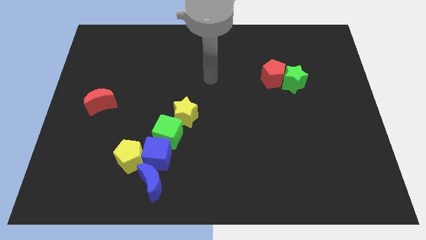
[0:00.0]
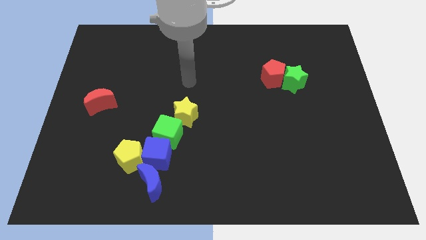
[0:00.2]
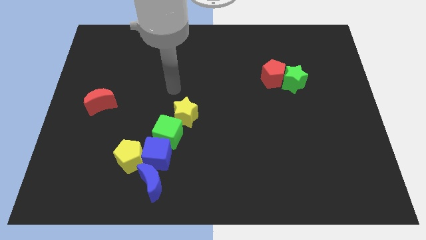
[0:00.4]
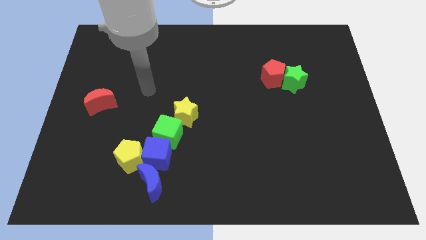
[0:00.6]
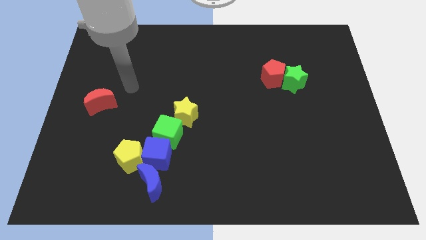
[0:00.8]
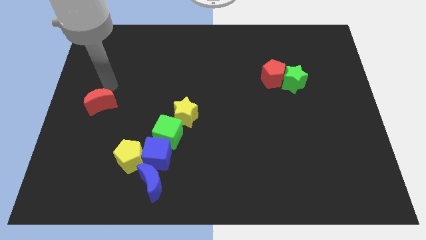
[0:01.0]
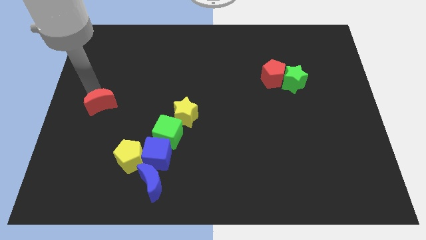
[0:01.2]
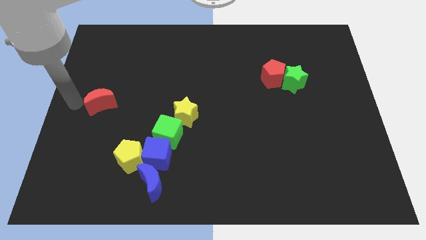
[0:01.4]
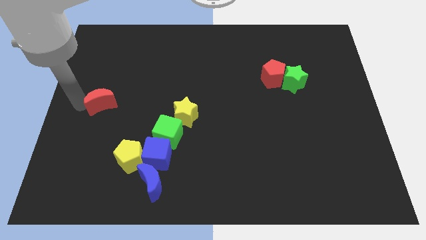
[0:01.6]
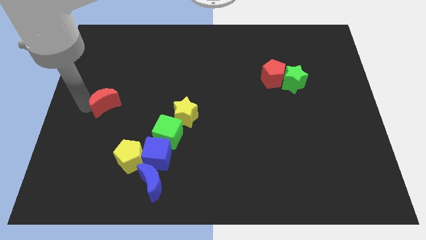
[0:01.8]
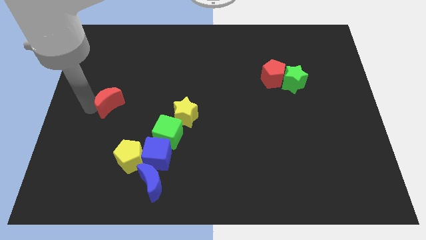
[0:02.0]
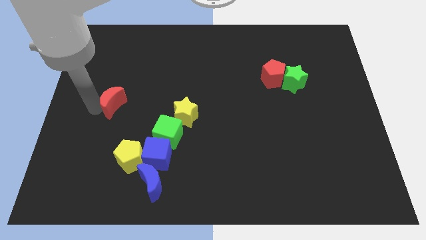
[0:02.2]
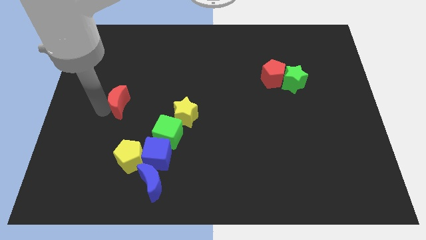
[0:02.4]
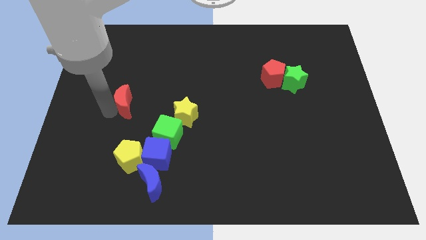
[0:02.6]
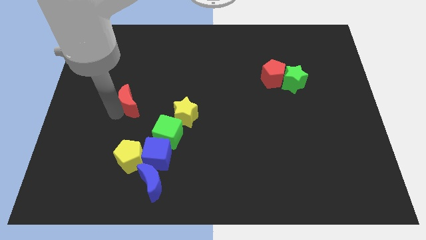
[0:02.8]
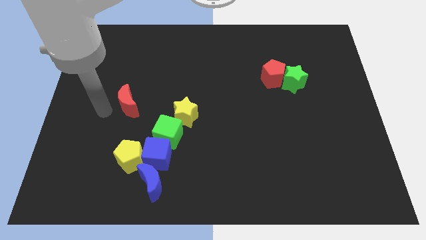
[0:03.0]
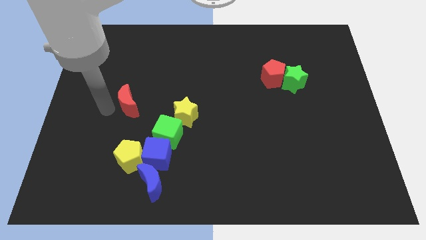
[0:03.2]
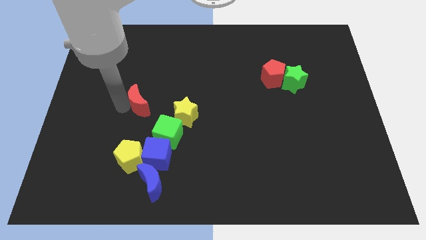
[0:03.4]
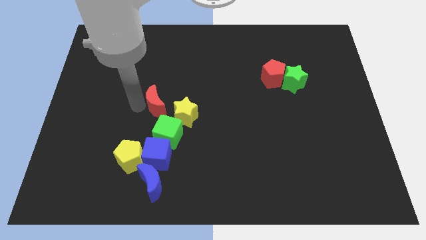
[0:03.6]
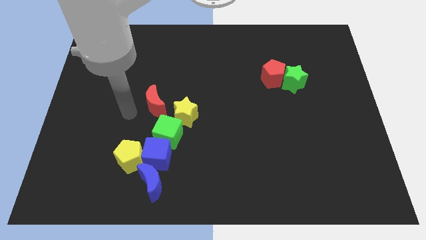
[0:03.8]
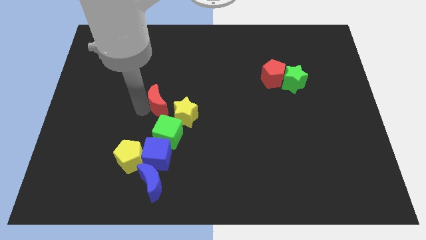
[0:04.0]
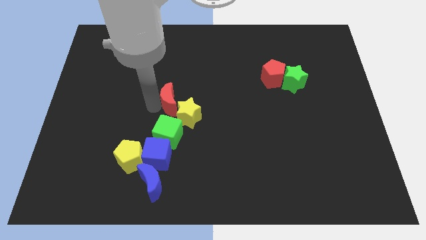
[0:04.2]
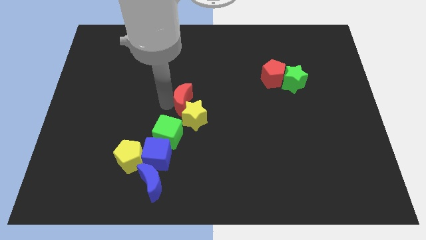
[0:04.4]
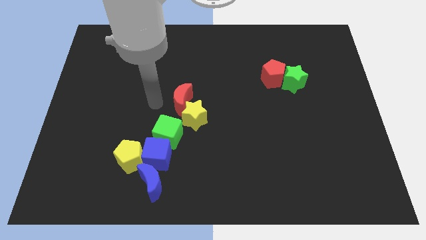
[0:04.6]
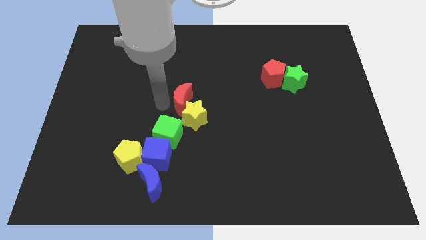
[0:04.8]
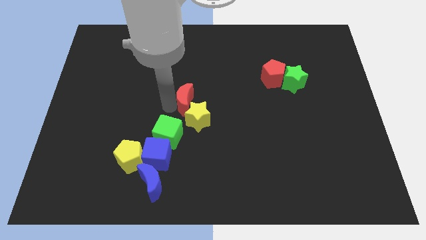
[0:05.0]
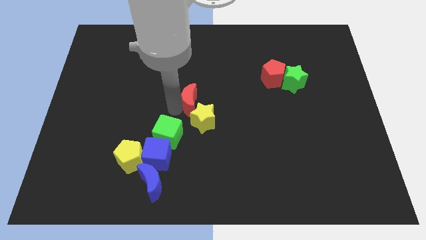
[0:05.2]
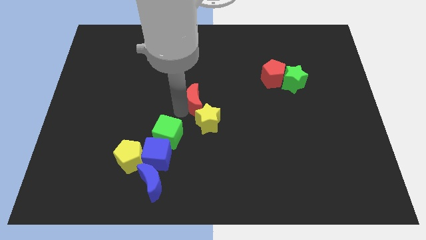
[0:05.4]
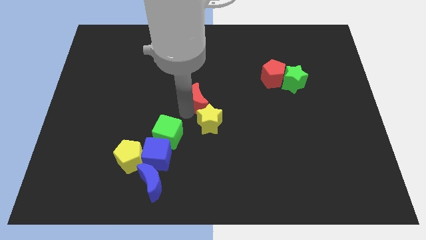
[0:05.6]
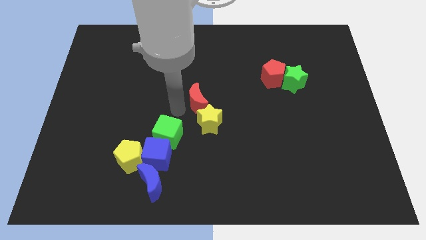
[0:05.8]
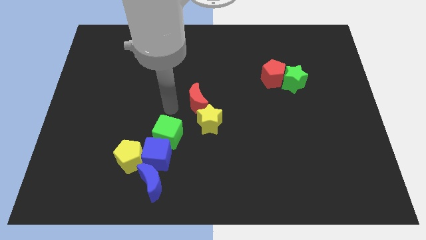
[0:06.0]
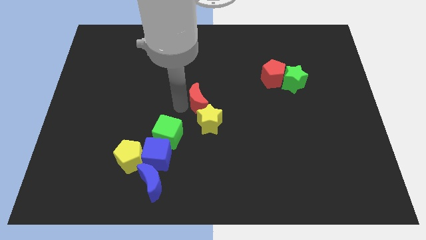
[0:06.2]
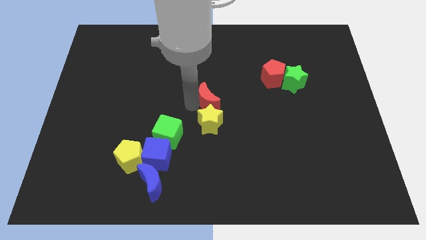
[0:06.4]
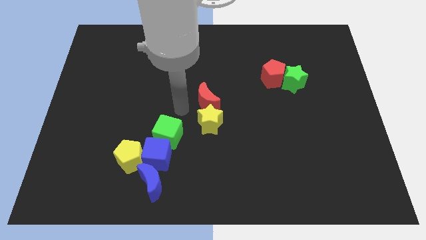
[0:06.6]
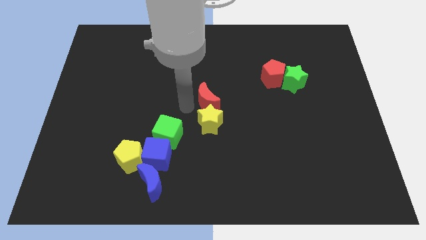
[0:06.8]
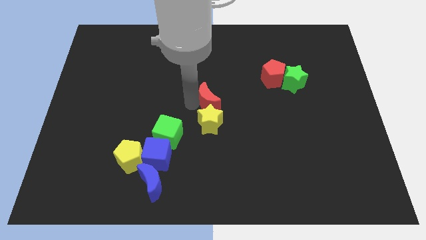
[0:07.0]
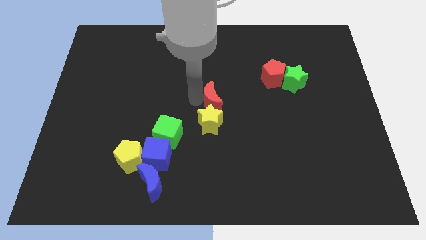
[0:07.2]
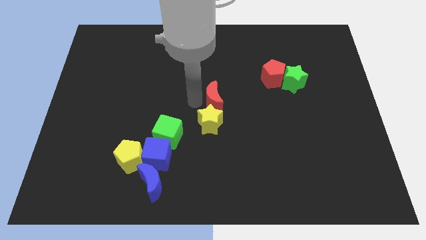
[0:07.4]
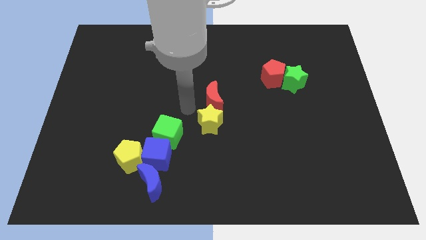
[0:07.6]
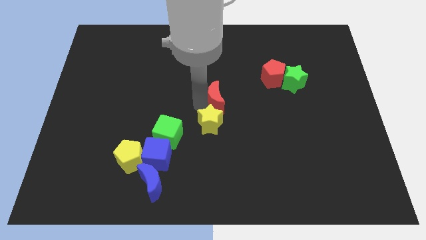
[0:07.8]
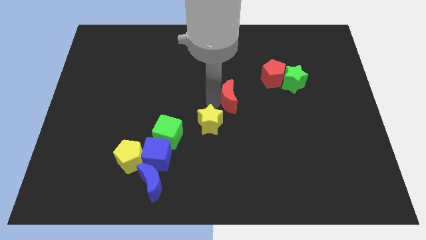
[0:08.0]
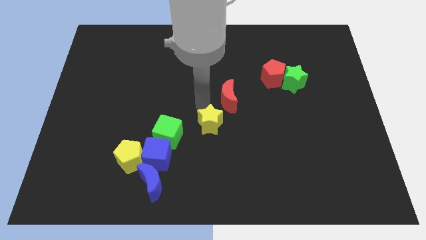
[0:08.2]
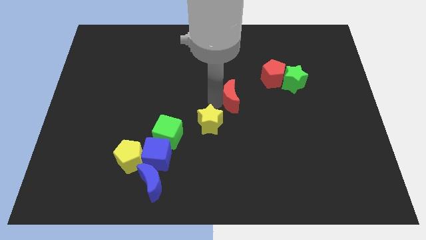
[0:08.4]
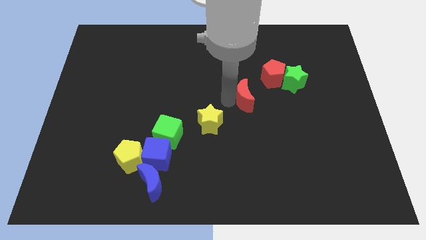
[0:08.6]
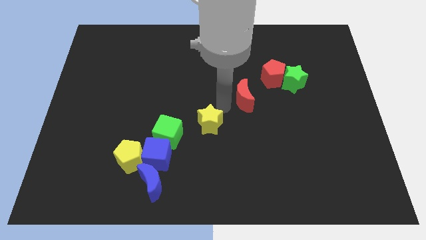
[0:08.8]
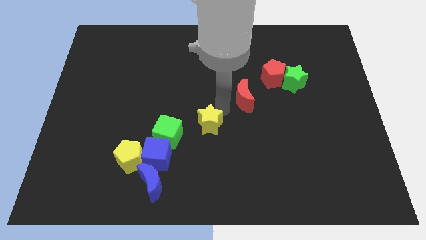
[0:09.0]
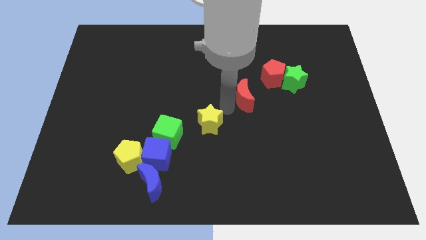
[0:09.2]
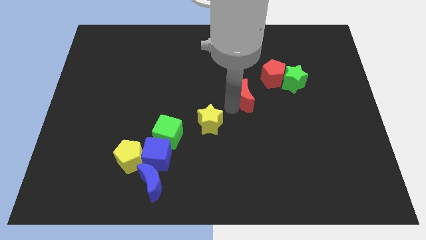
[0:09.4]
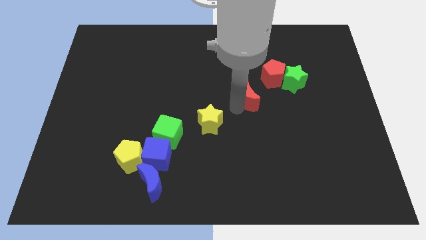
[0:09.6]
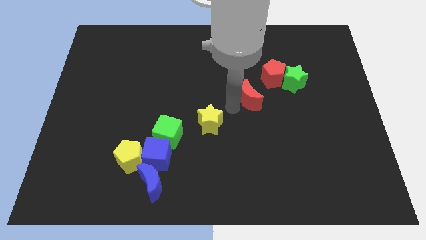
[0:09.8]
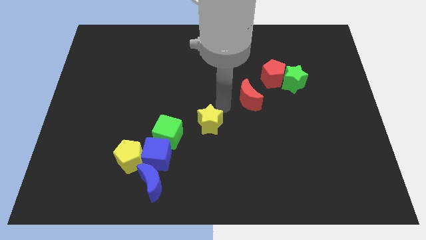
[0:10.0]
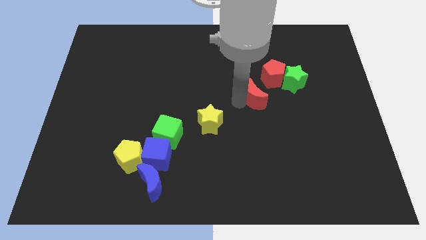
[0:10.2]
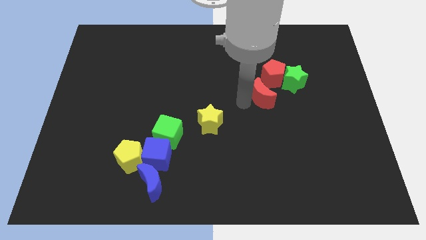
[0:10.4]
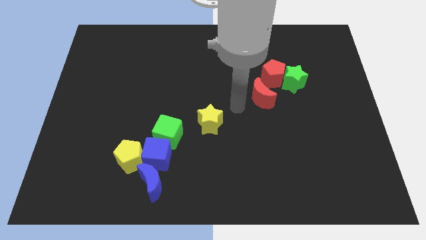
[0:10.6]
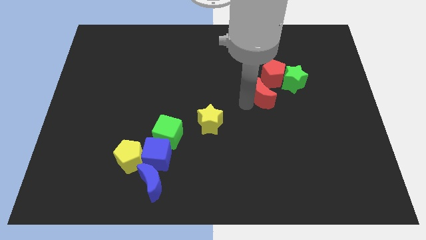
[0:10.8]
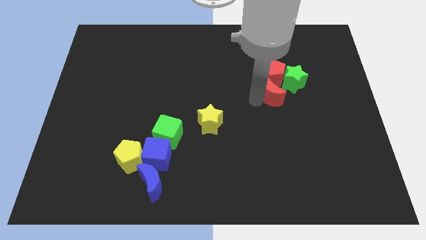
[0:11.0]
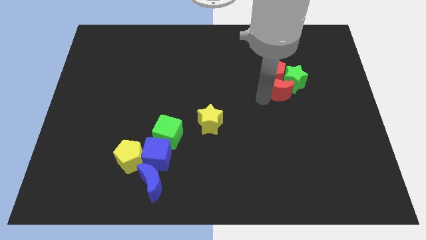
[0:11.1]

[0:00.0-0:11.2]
slide the red moon next to the green star

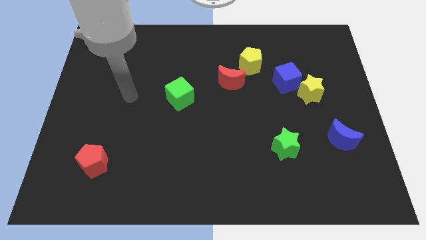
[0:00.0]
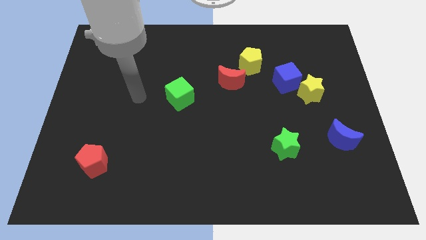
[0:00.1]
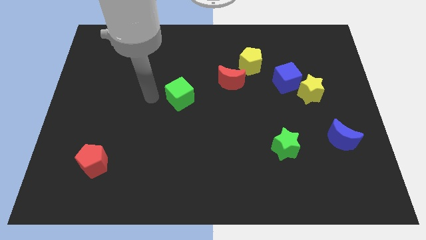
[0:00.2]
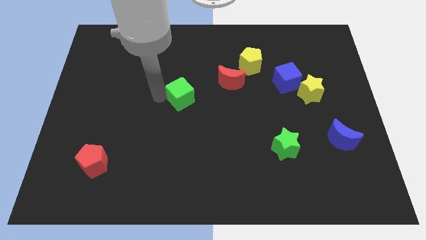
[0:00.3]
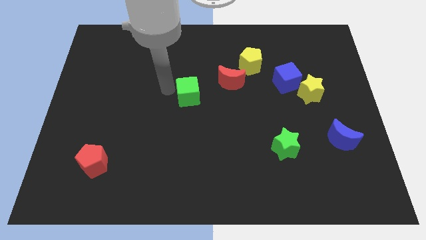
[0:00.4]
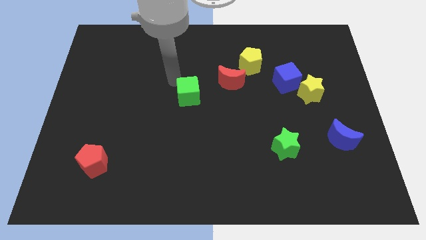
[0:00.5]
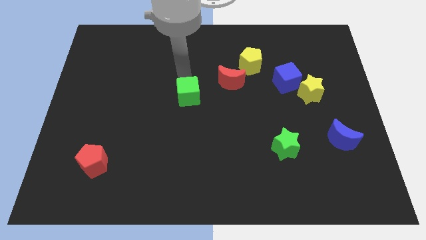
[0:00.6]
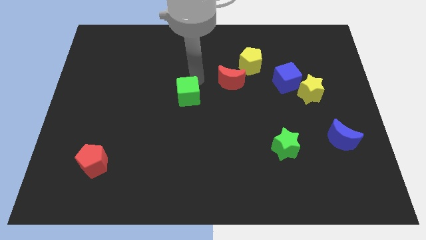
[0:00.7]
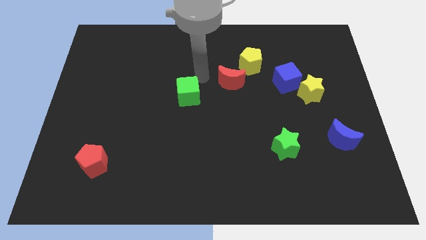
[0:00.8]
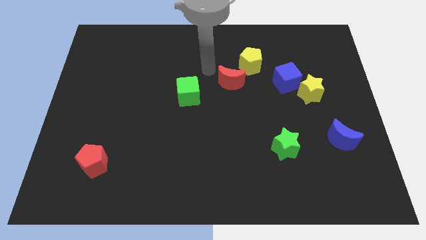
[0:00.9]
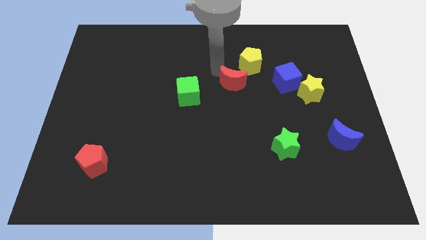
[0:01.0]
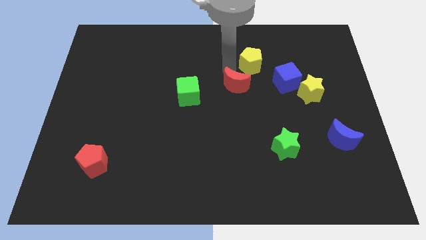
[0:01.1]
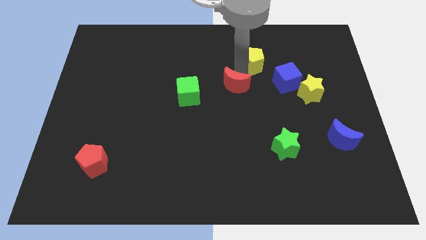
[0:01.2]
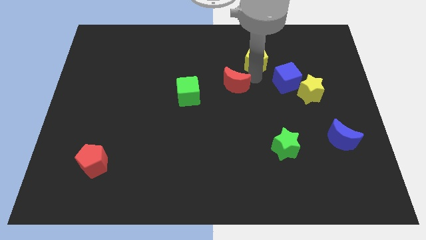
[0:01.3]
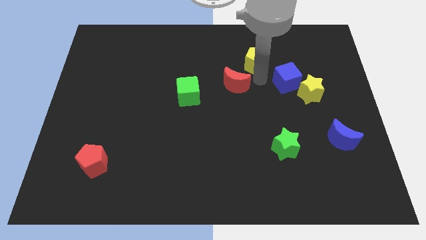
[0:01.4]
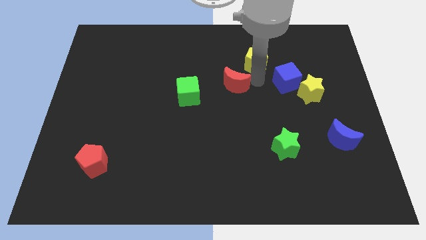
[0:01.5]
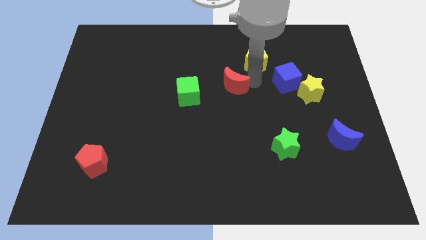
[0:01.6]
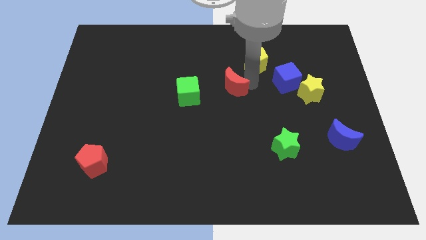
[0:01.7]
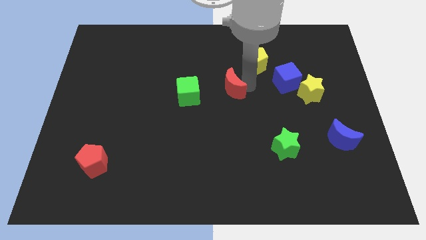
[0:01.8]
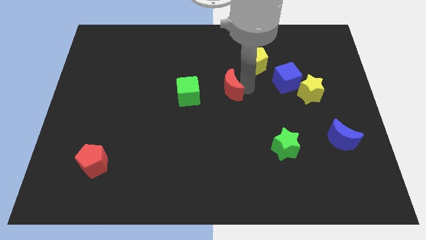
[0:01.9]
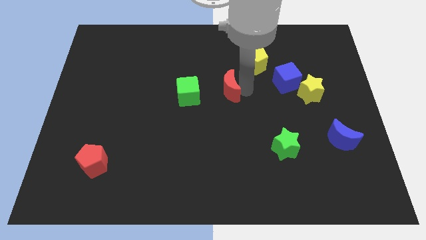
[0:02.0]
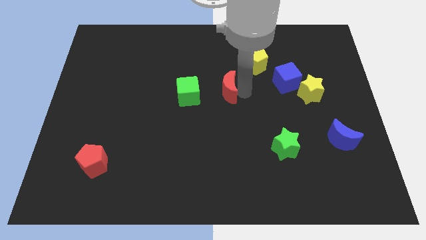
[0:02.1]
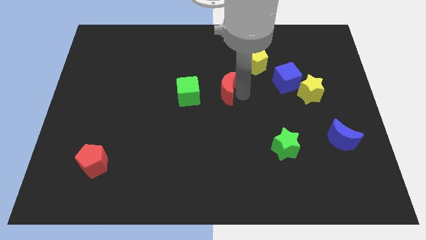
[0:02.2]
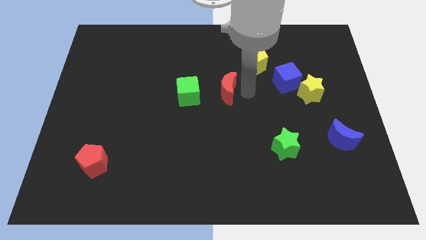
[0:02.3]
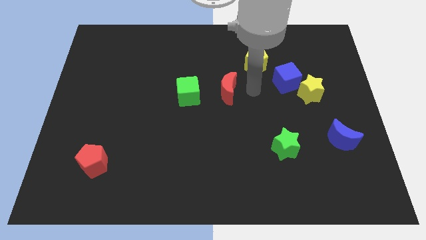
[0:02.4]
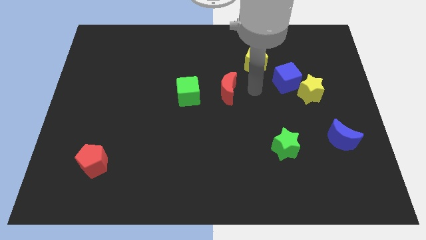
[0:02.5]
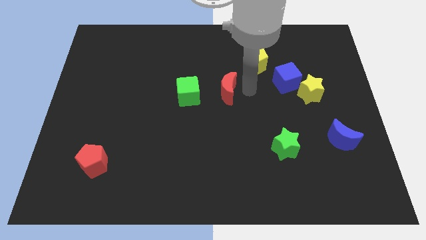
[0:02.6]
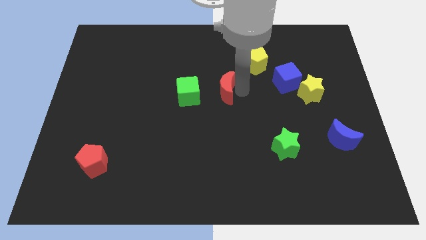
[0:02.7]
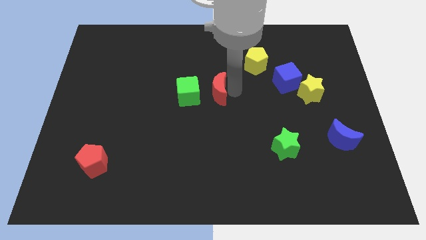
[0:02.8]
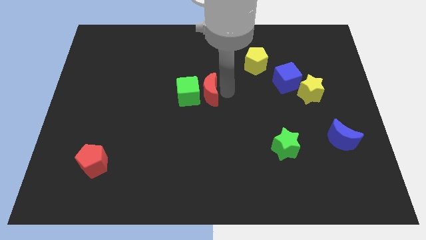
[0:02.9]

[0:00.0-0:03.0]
push the red moon next to the green cube
